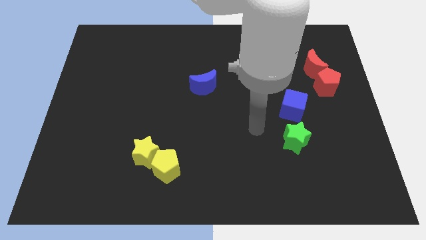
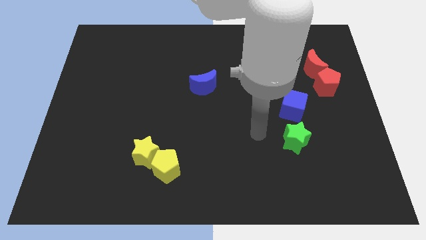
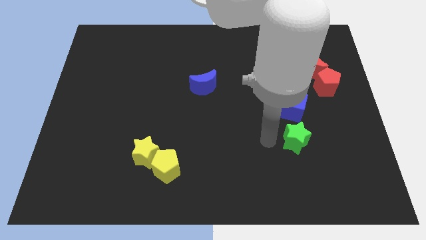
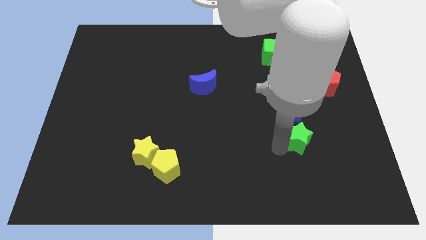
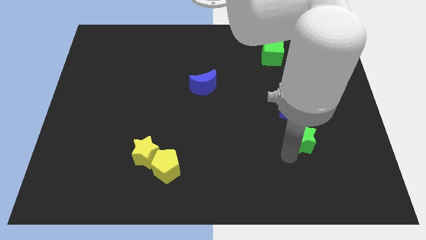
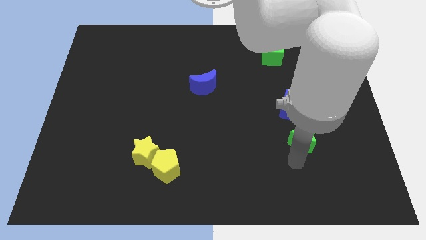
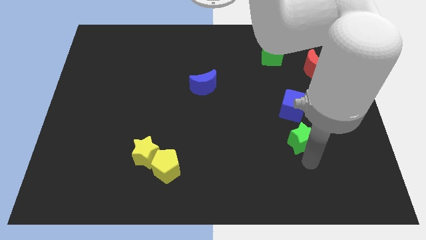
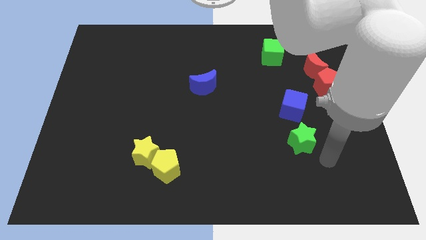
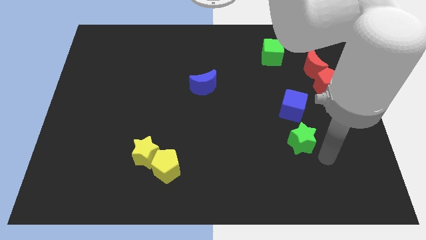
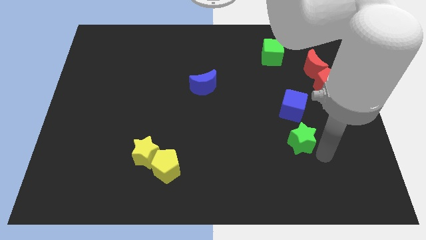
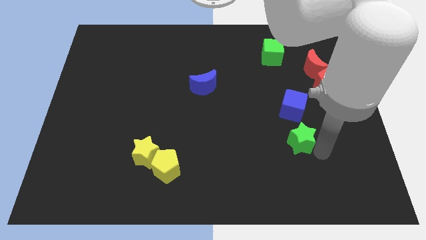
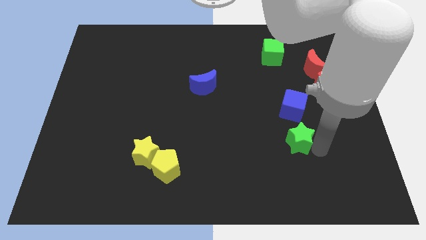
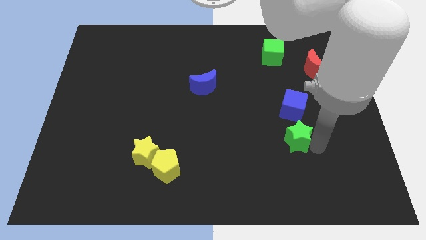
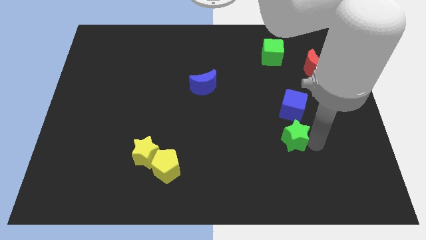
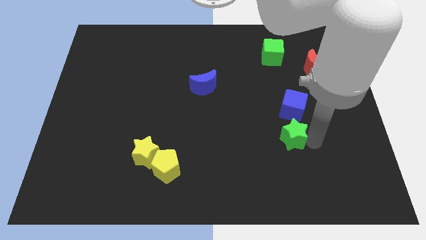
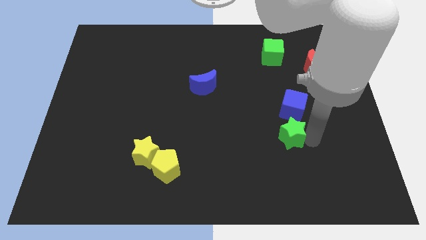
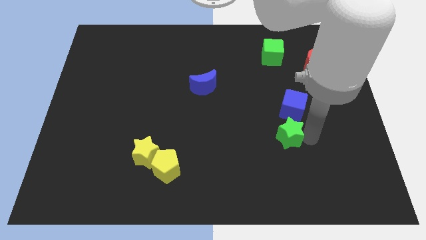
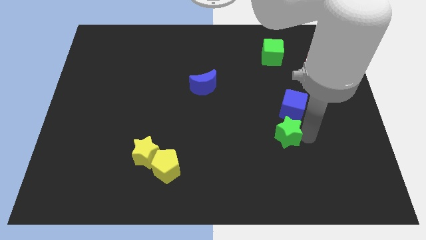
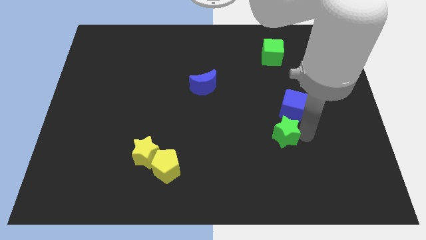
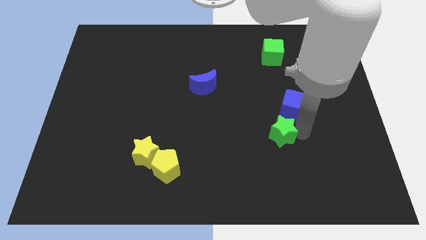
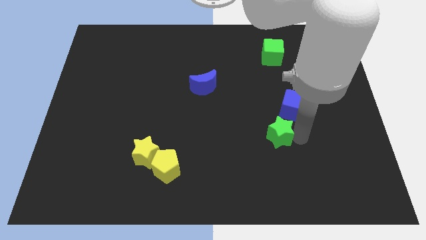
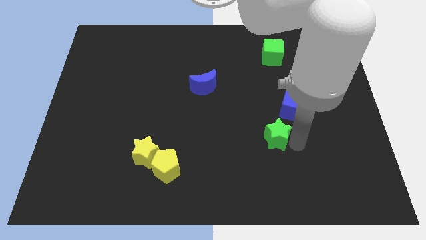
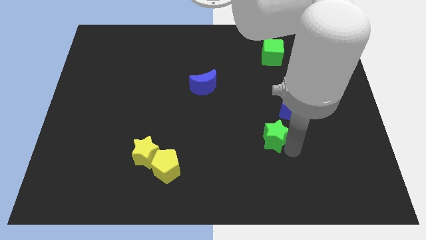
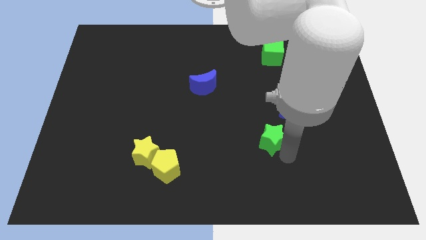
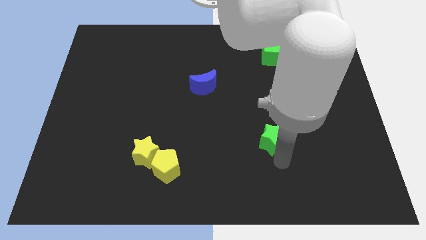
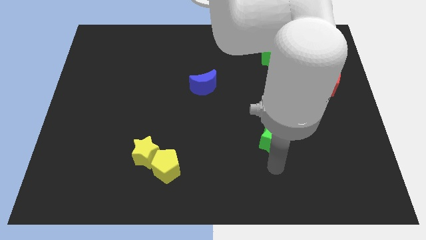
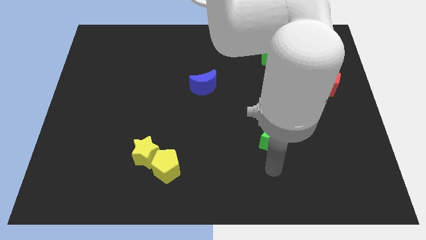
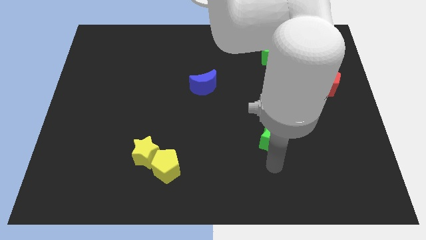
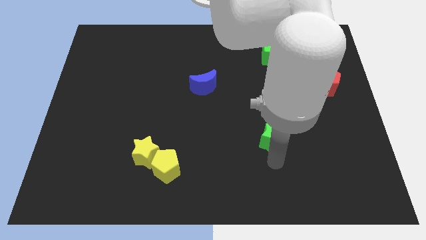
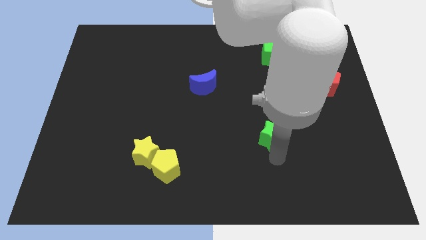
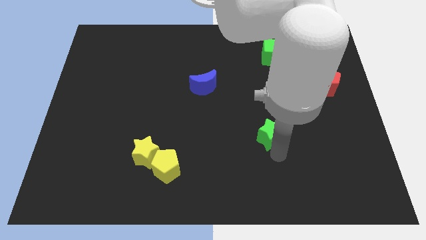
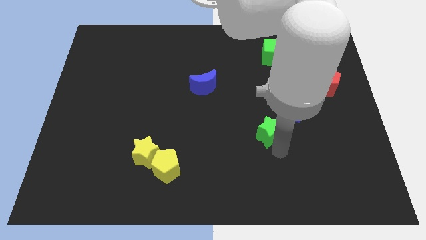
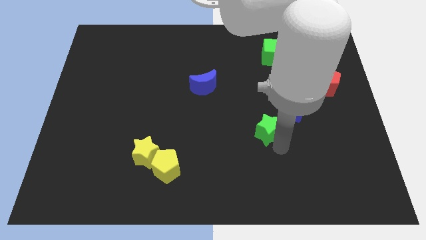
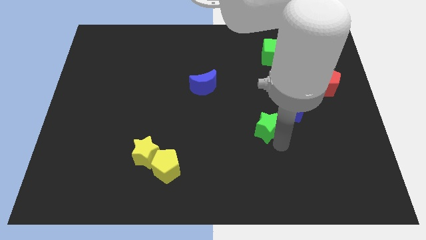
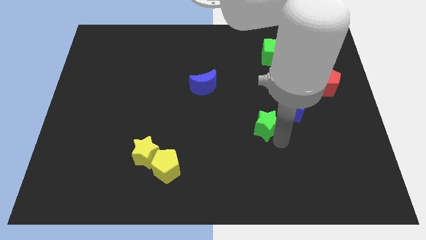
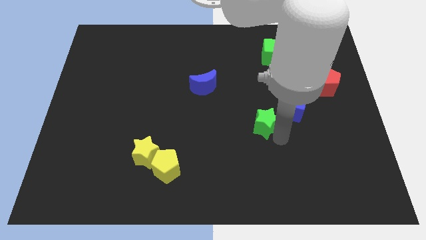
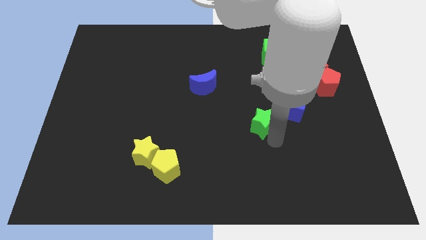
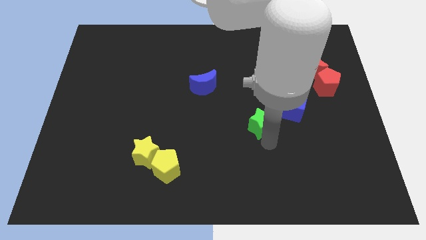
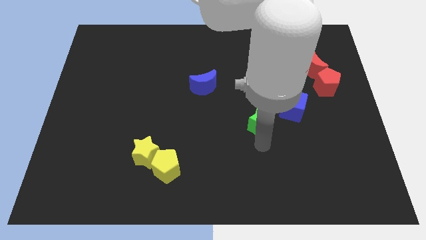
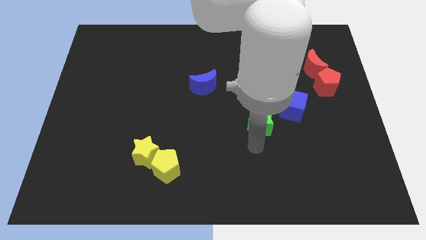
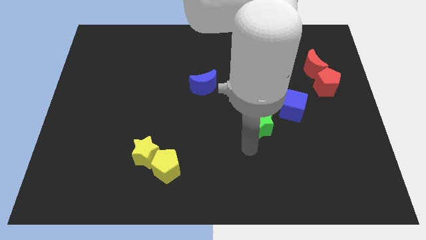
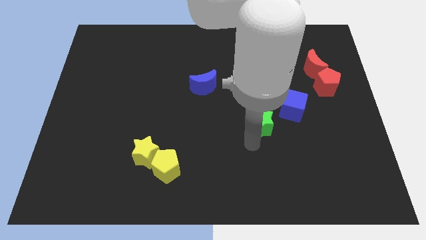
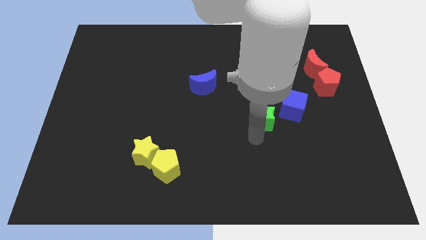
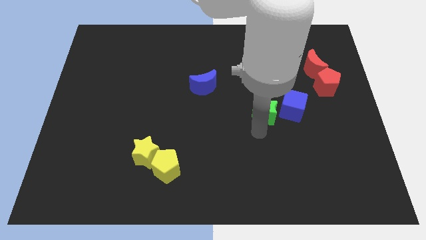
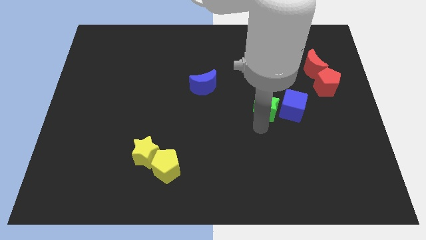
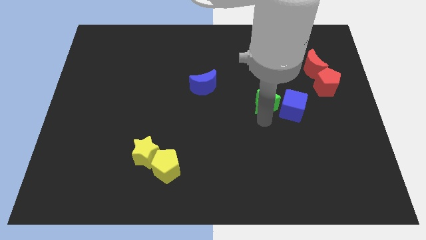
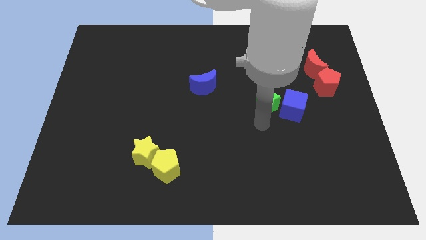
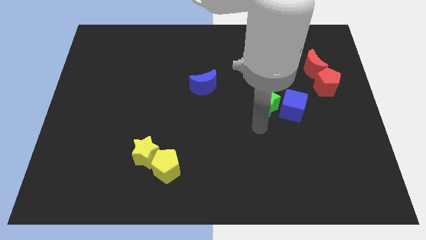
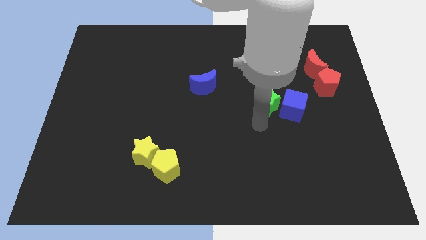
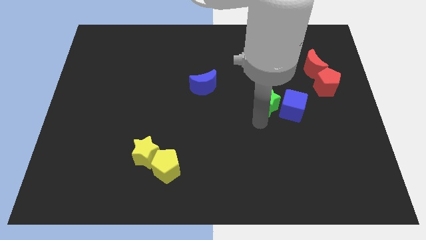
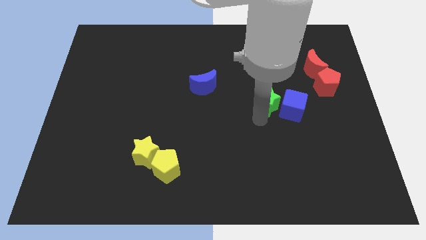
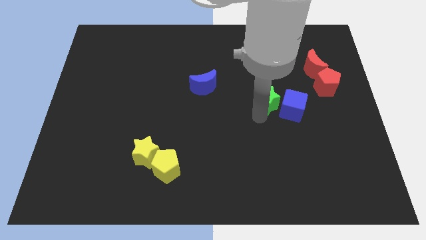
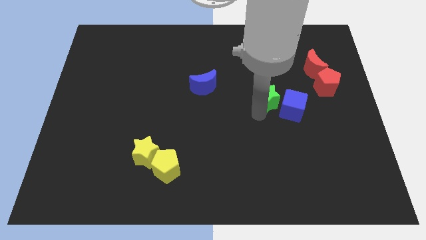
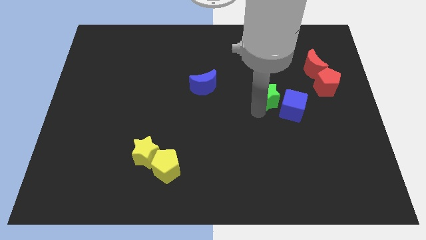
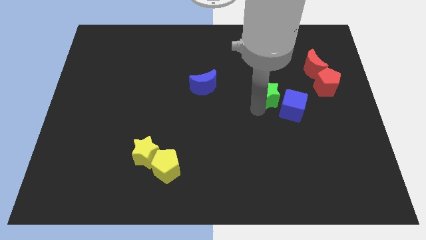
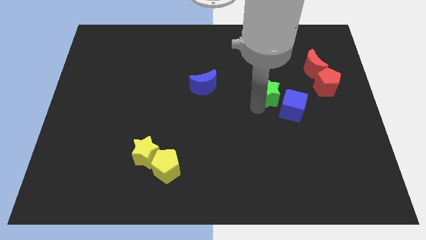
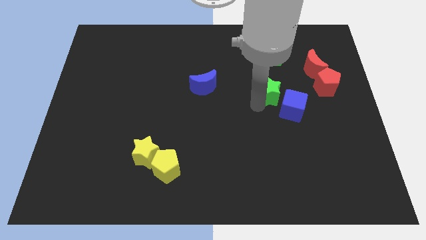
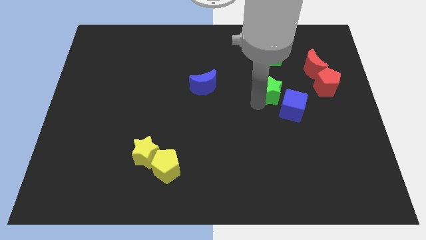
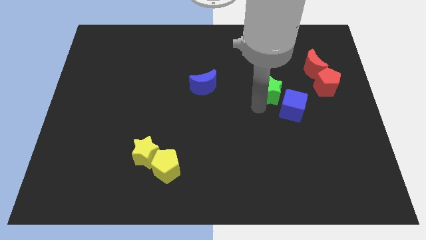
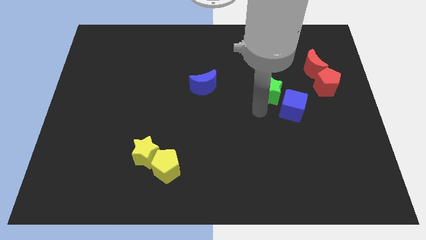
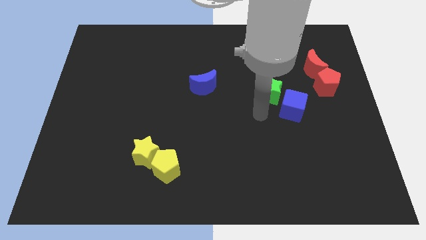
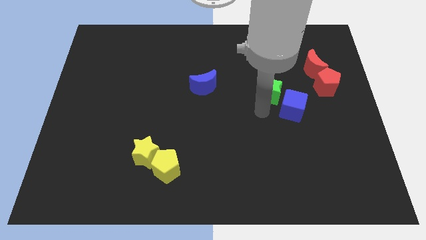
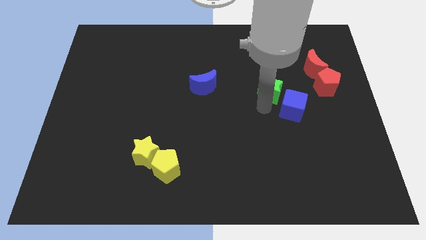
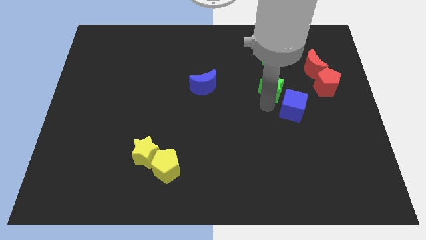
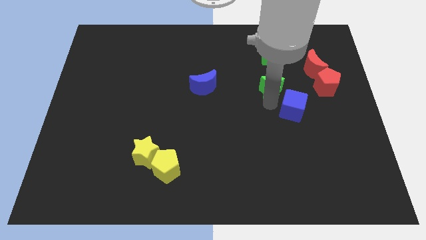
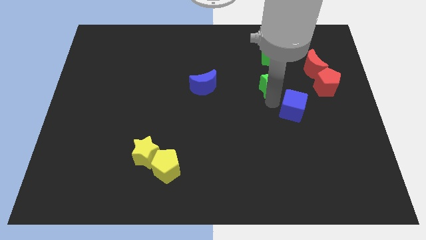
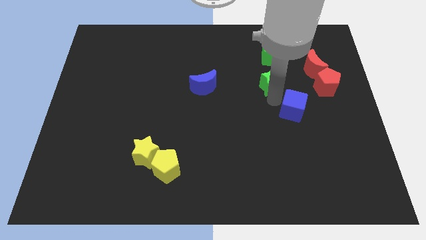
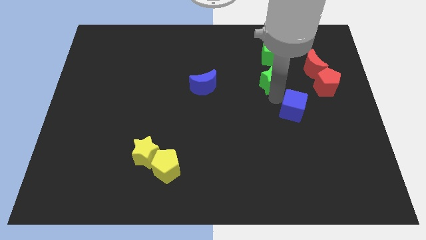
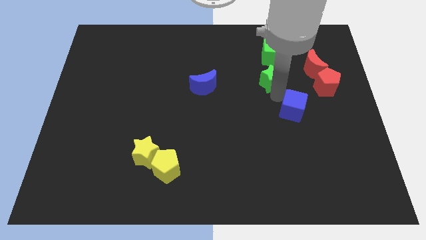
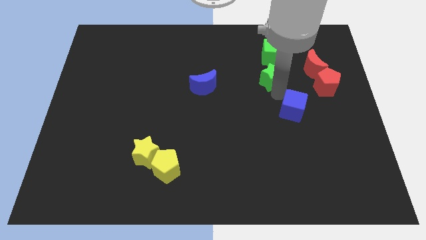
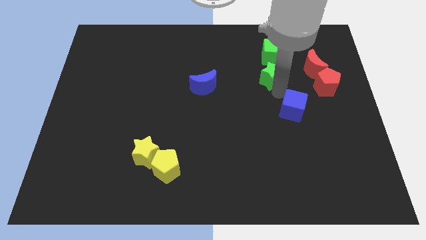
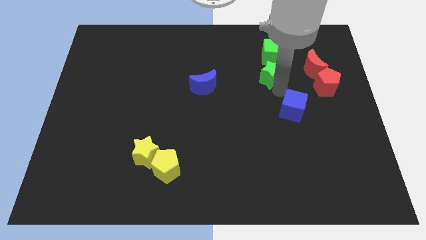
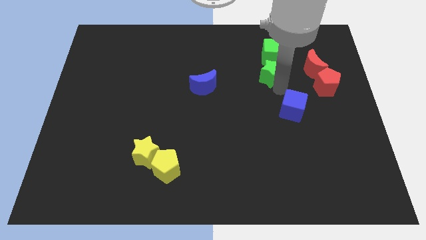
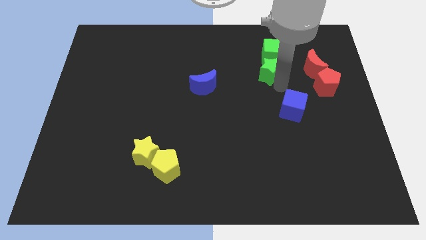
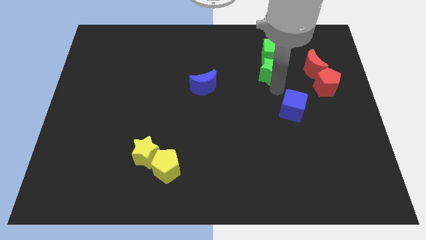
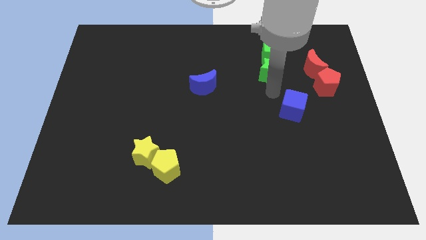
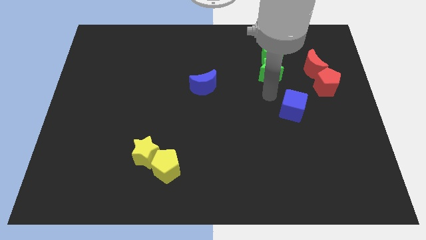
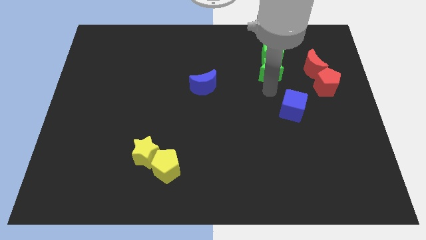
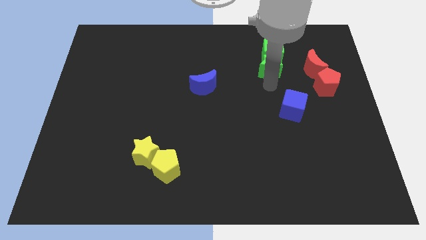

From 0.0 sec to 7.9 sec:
slide the green star next to the green cube
